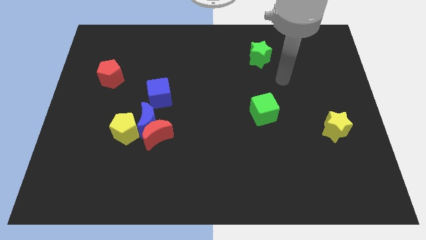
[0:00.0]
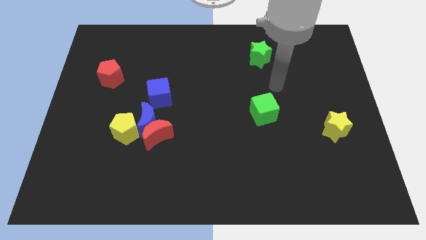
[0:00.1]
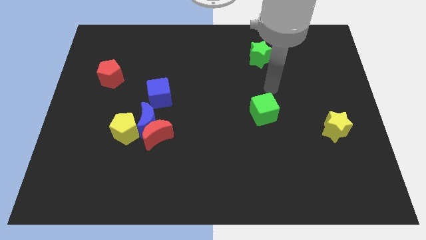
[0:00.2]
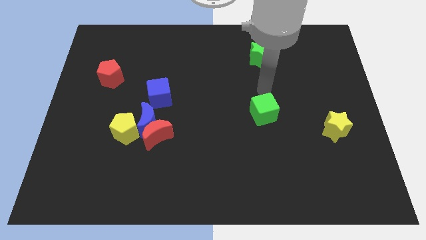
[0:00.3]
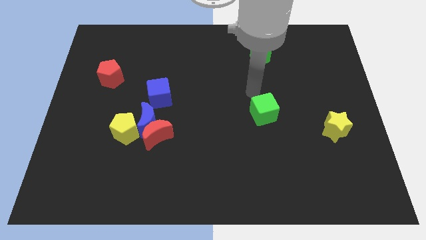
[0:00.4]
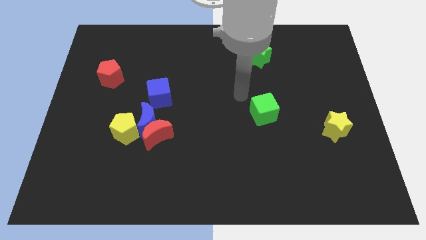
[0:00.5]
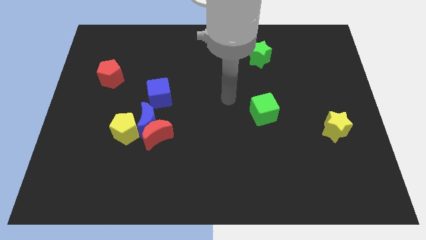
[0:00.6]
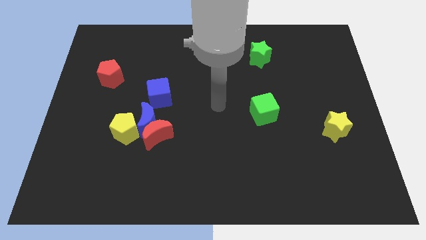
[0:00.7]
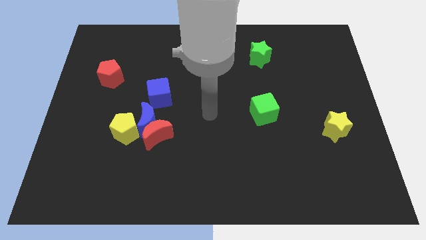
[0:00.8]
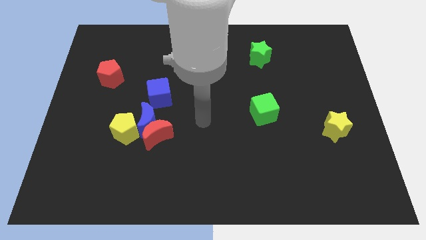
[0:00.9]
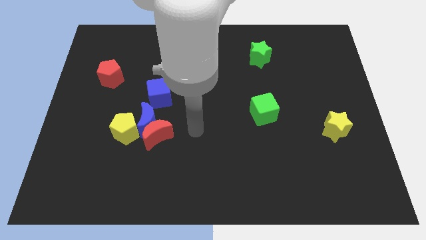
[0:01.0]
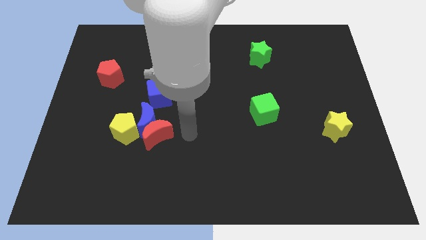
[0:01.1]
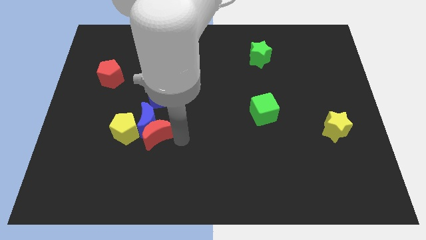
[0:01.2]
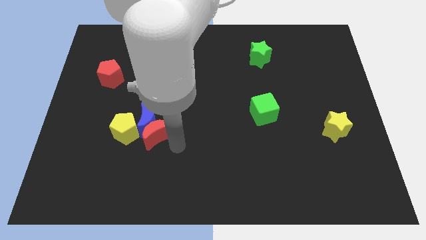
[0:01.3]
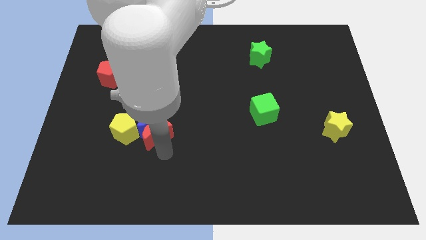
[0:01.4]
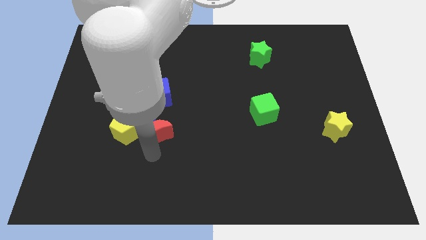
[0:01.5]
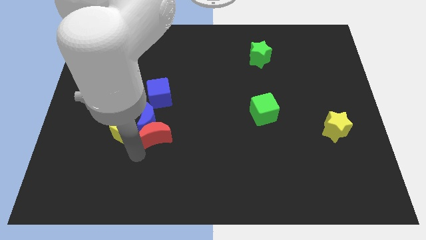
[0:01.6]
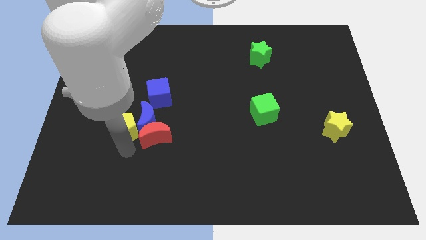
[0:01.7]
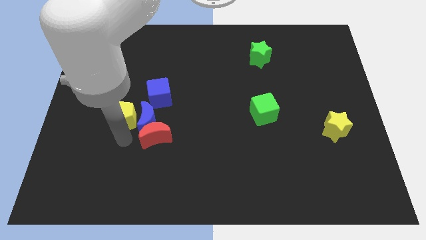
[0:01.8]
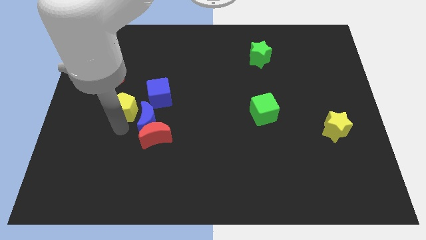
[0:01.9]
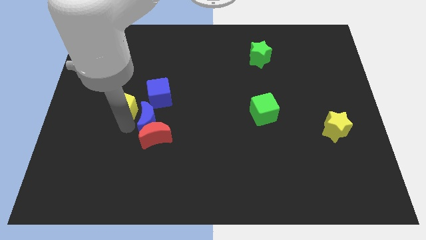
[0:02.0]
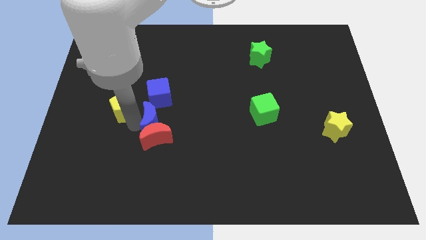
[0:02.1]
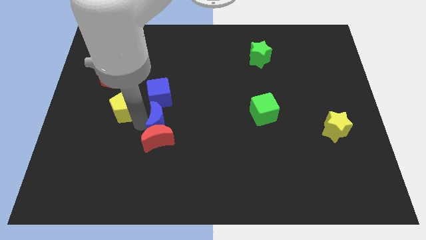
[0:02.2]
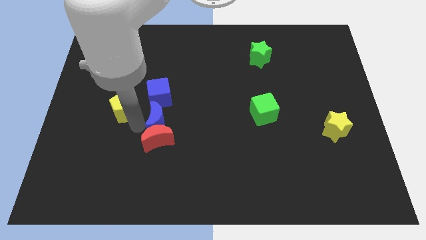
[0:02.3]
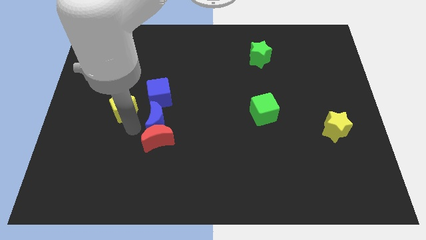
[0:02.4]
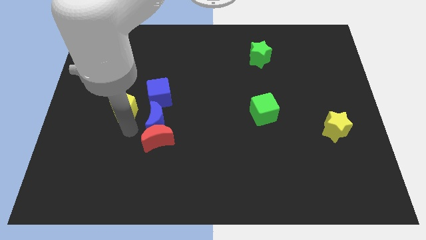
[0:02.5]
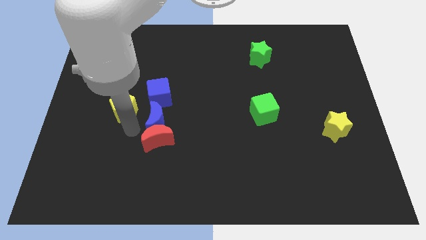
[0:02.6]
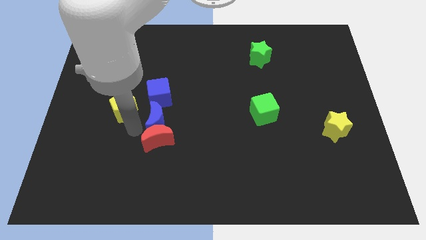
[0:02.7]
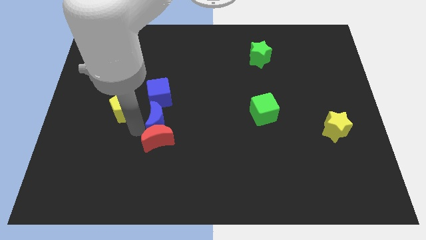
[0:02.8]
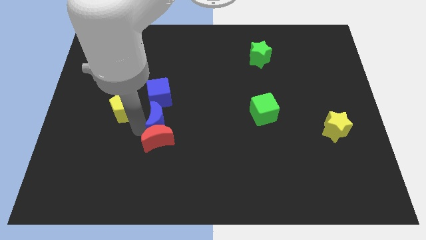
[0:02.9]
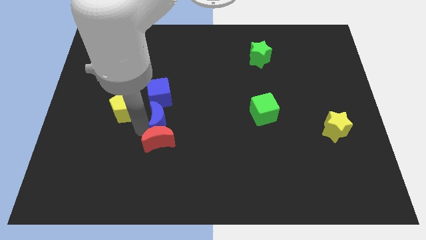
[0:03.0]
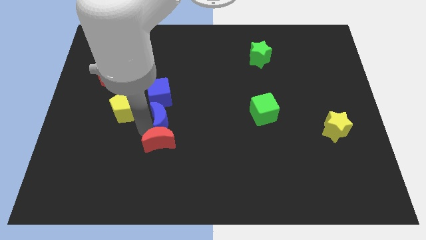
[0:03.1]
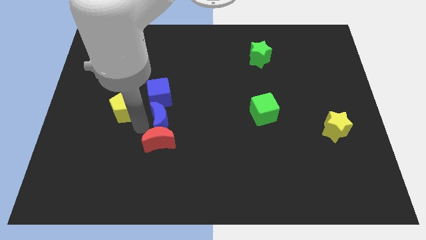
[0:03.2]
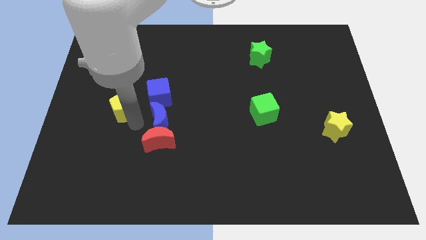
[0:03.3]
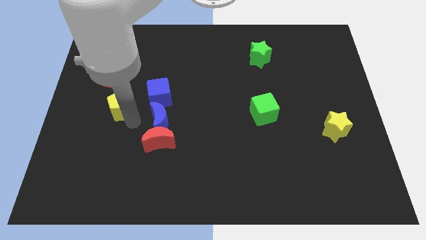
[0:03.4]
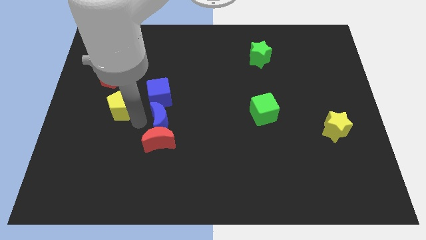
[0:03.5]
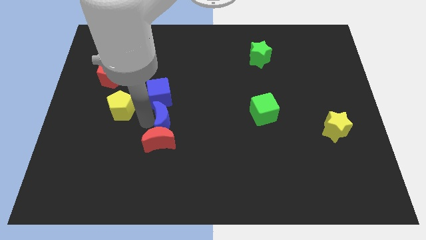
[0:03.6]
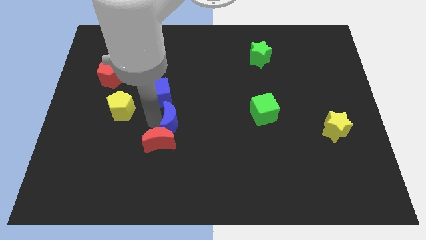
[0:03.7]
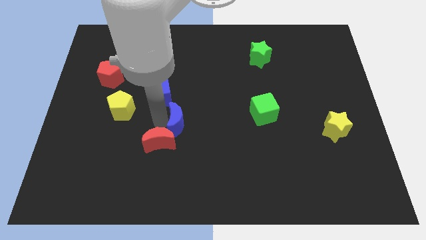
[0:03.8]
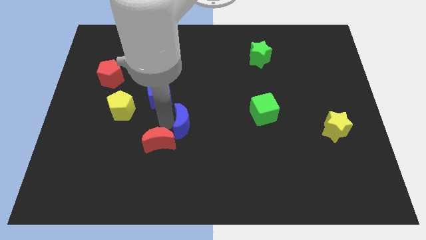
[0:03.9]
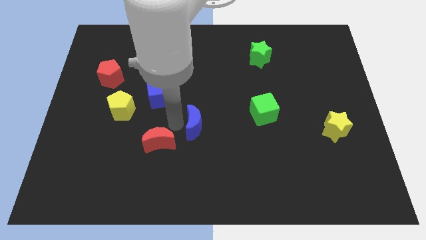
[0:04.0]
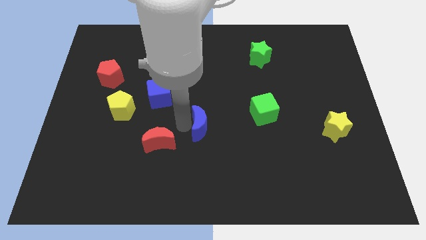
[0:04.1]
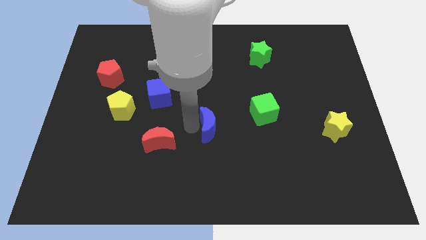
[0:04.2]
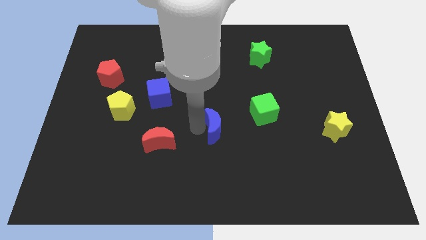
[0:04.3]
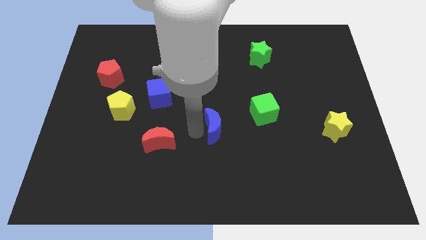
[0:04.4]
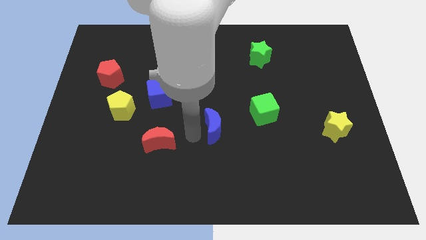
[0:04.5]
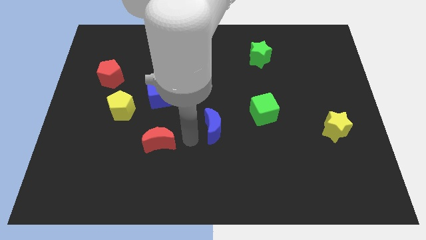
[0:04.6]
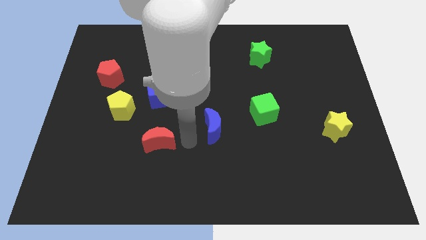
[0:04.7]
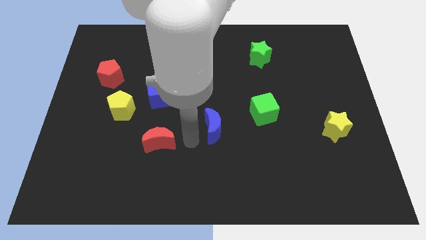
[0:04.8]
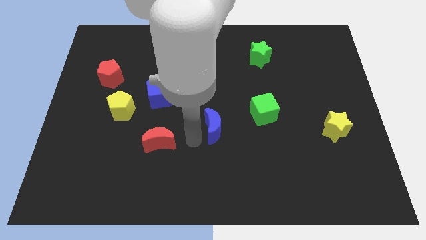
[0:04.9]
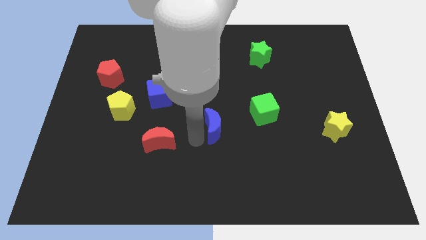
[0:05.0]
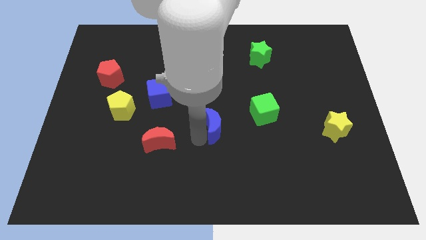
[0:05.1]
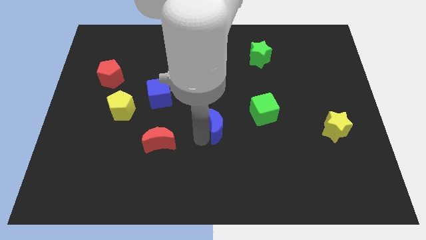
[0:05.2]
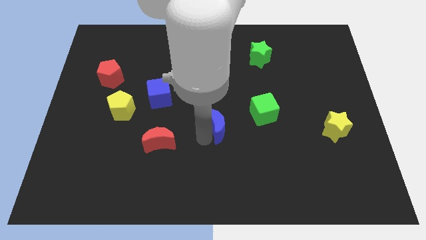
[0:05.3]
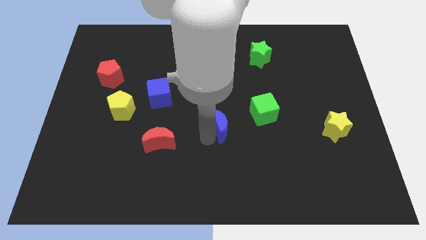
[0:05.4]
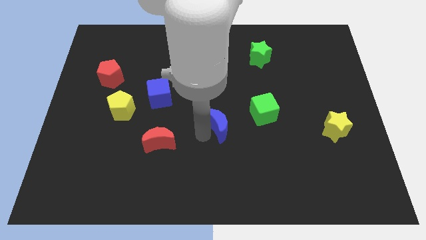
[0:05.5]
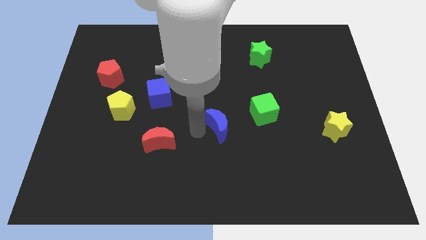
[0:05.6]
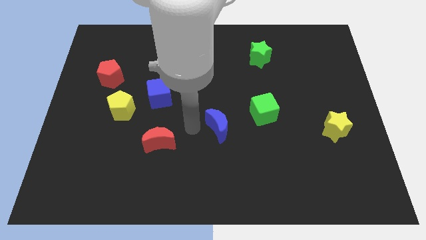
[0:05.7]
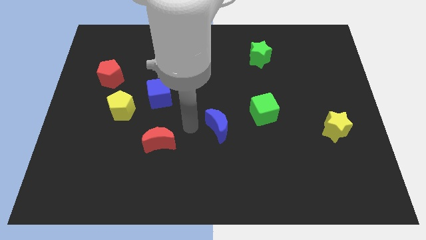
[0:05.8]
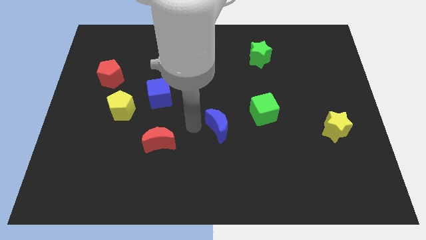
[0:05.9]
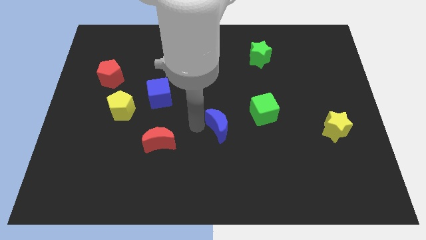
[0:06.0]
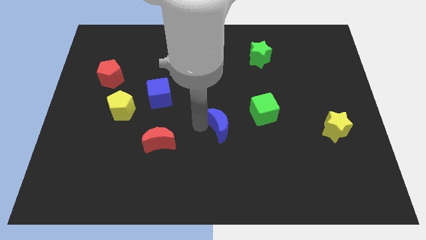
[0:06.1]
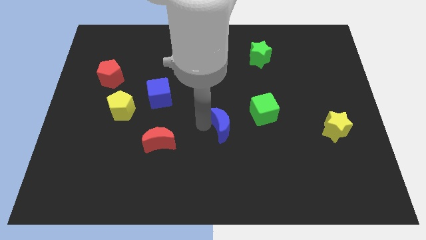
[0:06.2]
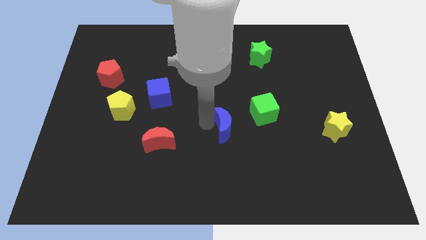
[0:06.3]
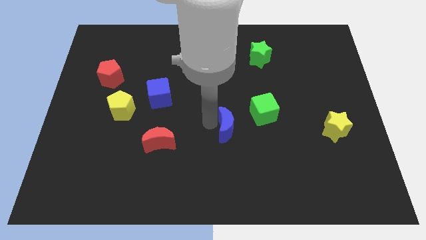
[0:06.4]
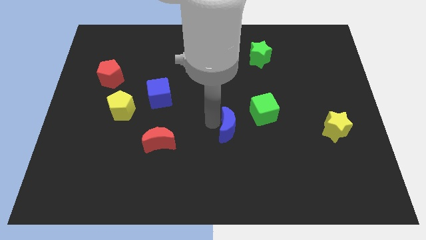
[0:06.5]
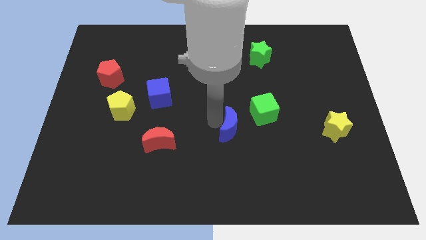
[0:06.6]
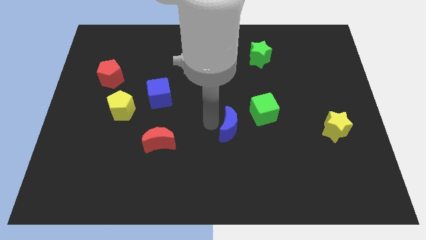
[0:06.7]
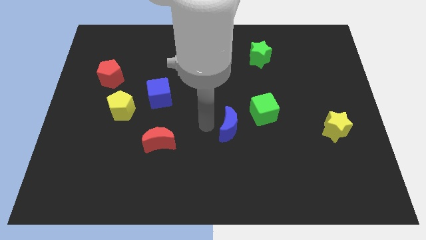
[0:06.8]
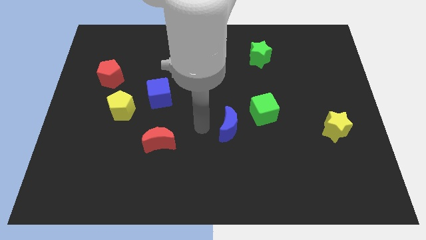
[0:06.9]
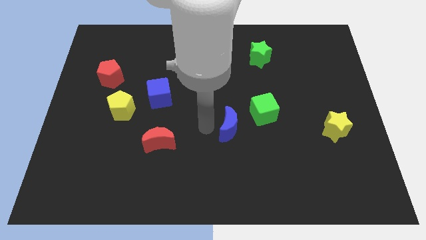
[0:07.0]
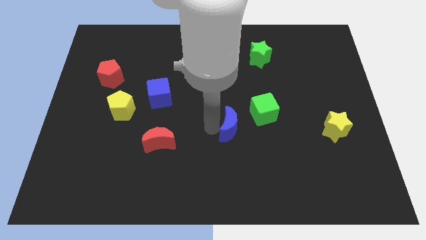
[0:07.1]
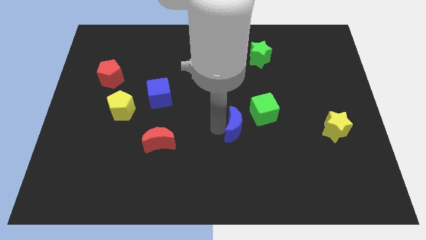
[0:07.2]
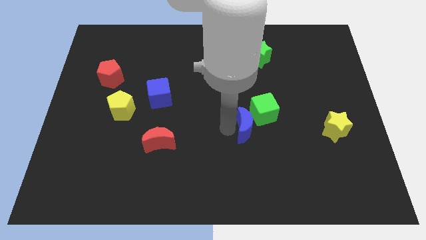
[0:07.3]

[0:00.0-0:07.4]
move the blue moon to the right

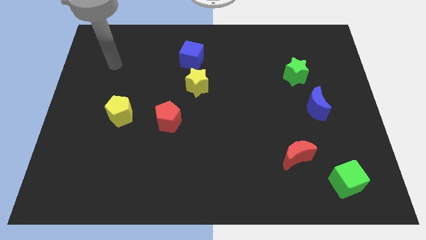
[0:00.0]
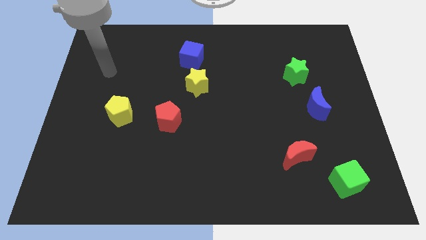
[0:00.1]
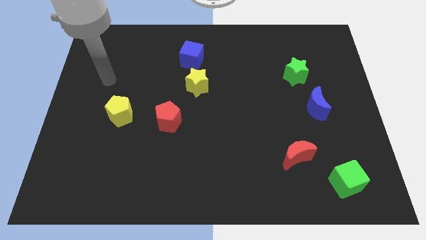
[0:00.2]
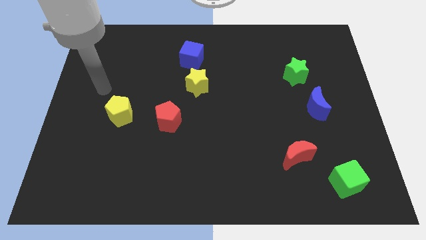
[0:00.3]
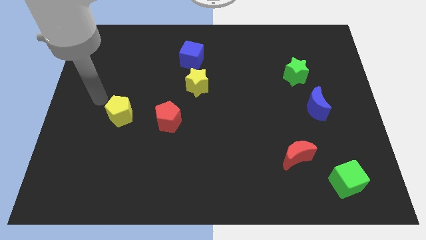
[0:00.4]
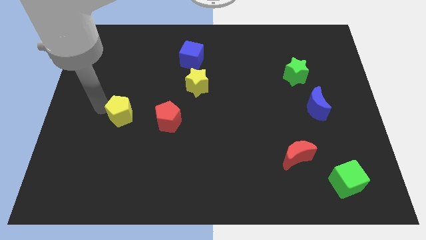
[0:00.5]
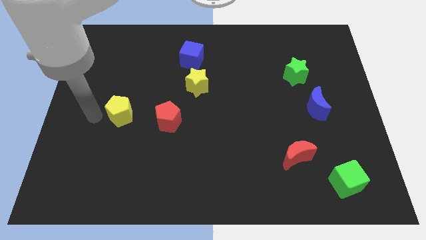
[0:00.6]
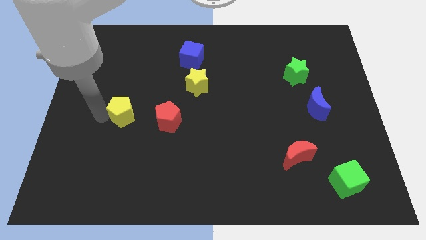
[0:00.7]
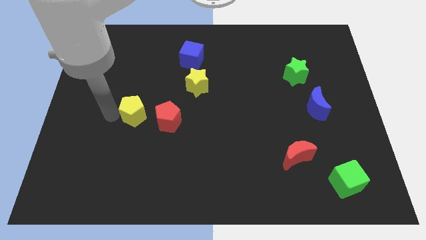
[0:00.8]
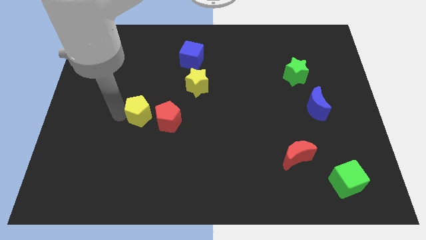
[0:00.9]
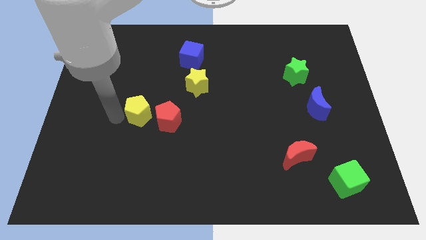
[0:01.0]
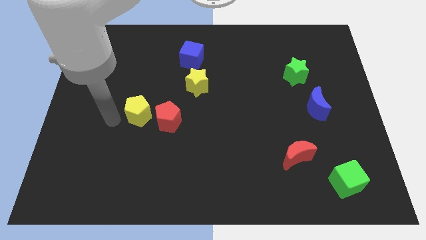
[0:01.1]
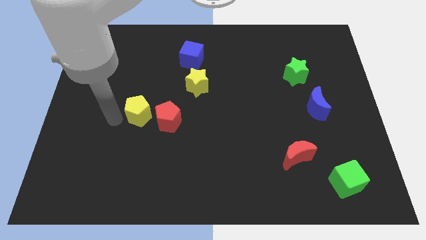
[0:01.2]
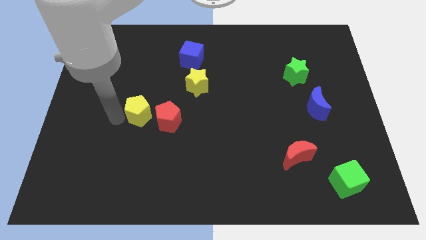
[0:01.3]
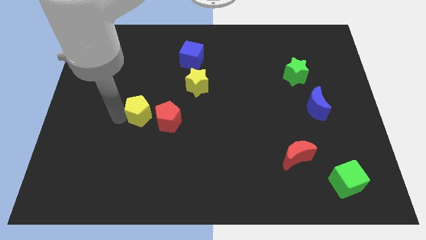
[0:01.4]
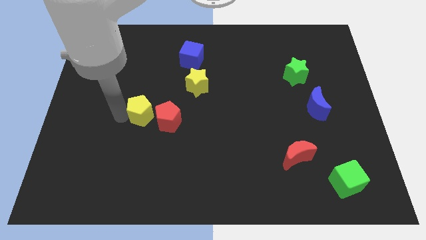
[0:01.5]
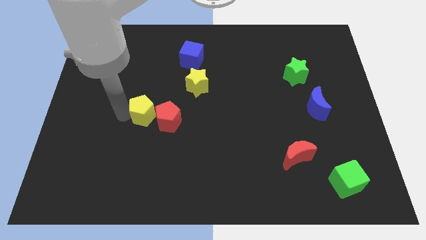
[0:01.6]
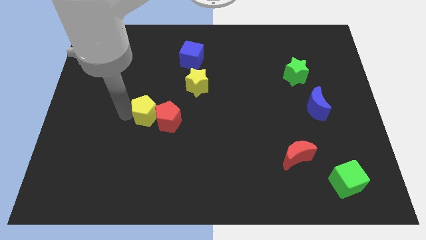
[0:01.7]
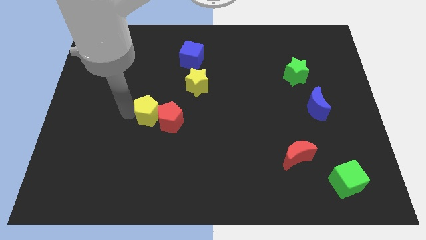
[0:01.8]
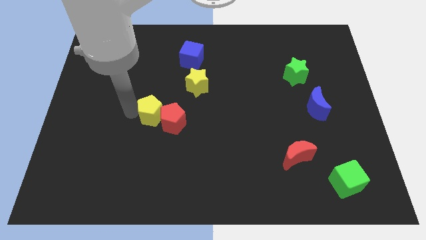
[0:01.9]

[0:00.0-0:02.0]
slide the yellow pentagon right a little
